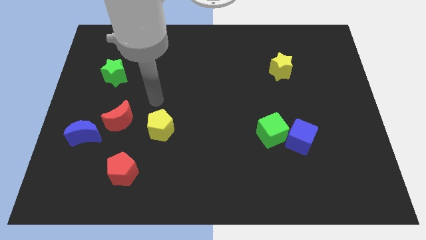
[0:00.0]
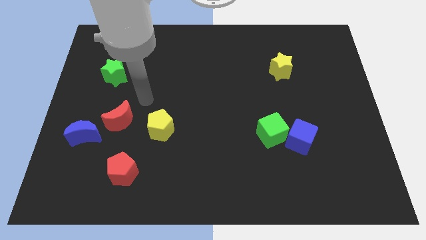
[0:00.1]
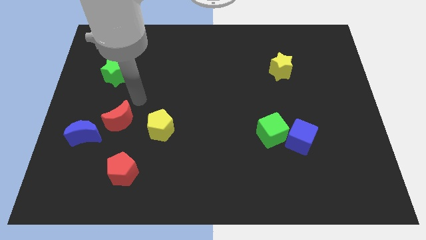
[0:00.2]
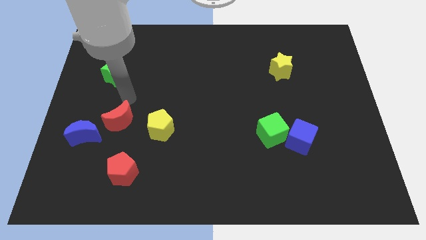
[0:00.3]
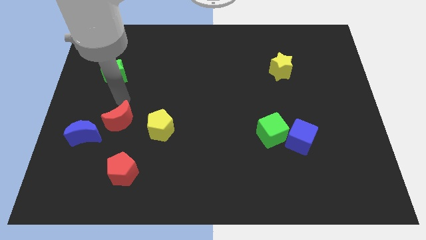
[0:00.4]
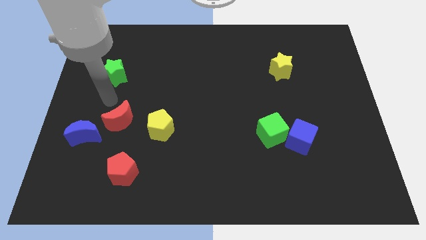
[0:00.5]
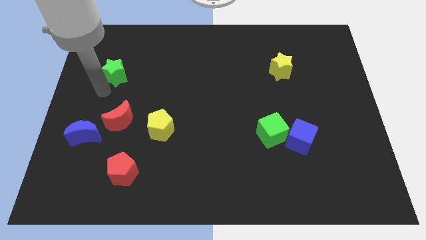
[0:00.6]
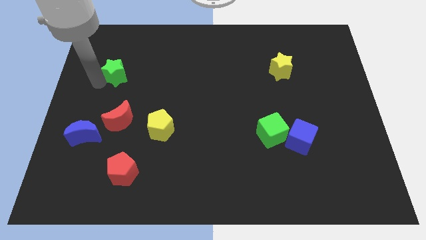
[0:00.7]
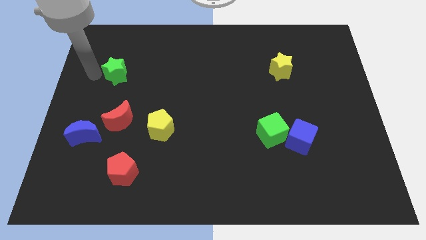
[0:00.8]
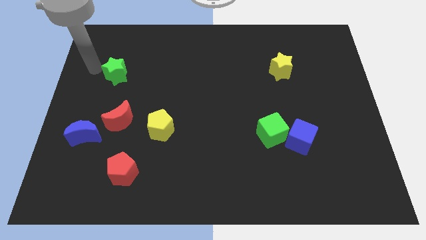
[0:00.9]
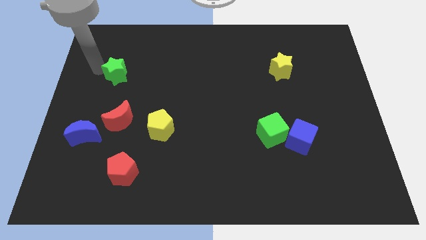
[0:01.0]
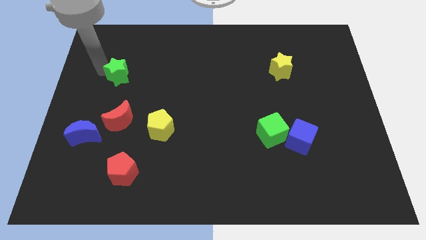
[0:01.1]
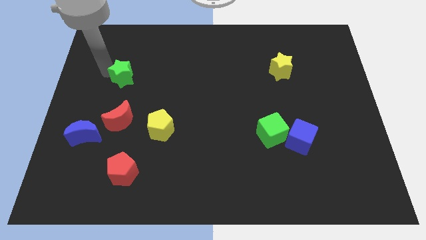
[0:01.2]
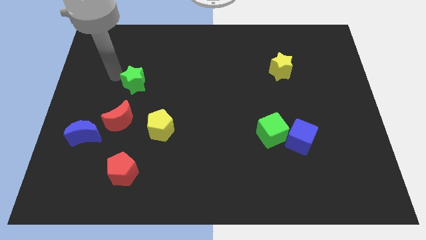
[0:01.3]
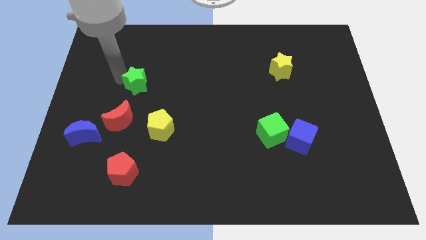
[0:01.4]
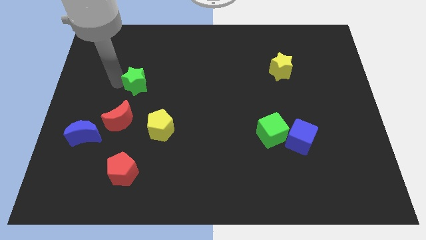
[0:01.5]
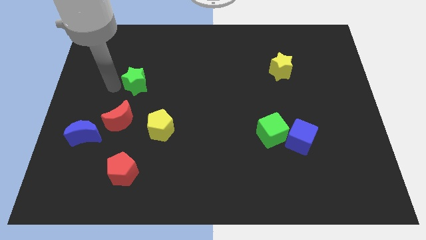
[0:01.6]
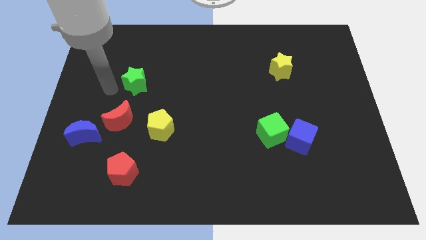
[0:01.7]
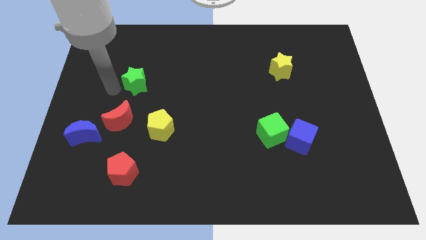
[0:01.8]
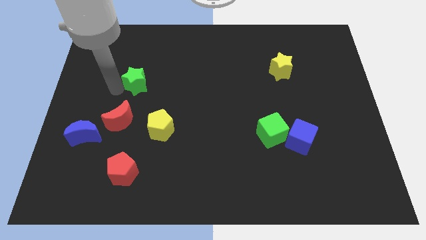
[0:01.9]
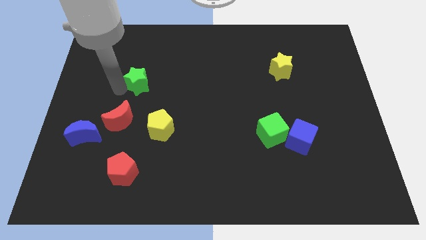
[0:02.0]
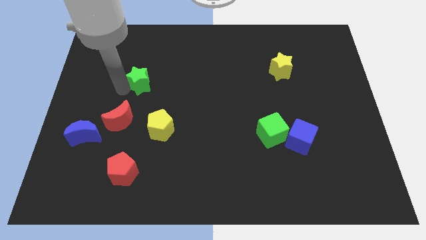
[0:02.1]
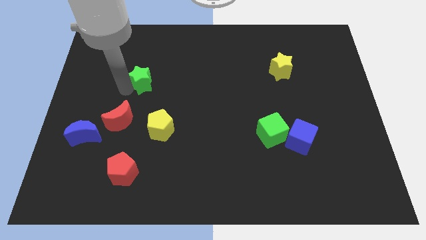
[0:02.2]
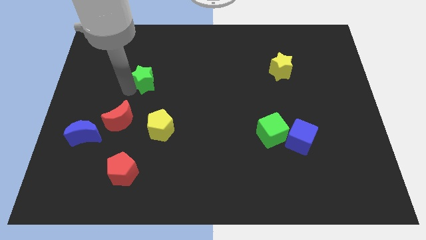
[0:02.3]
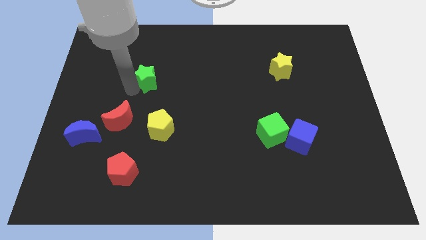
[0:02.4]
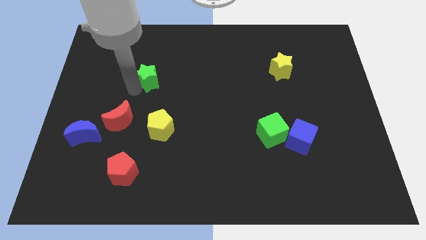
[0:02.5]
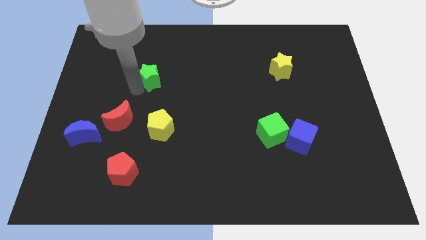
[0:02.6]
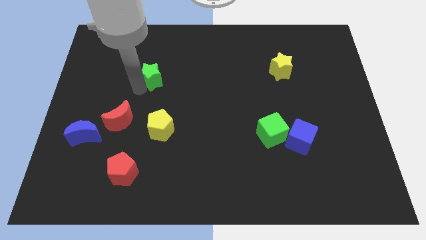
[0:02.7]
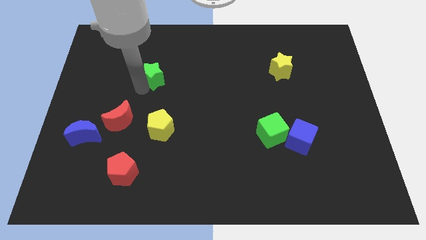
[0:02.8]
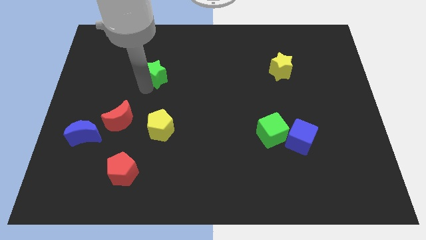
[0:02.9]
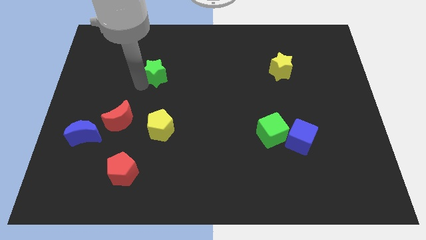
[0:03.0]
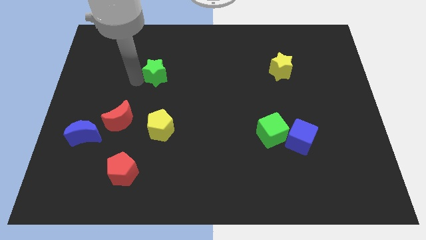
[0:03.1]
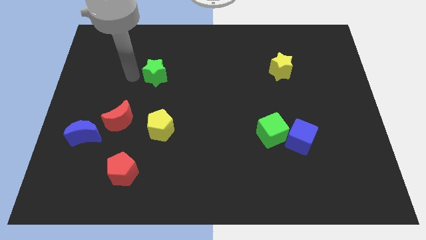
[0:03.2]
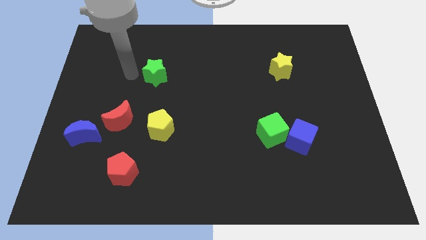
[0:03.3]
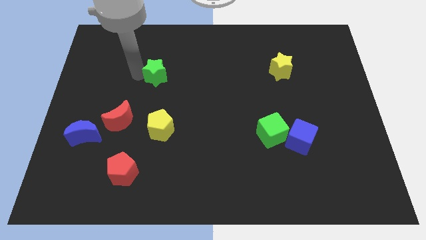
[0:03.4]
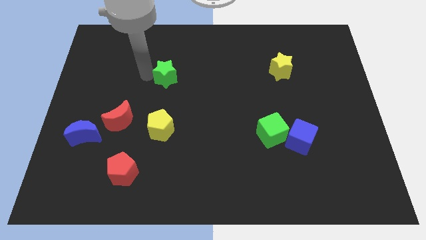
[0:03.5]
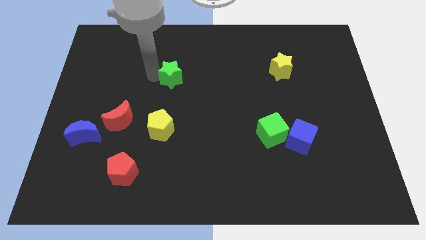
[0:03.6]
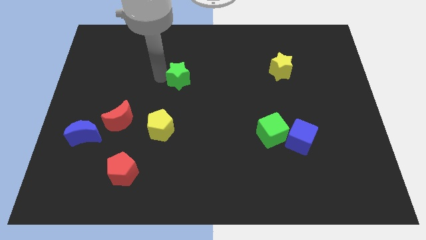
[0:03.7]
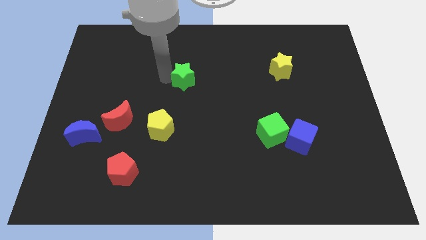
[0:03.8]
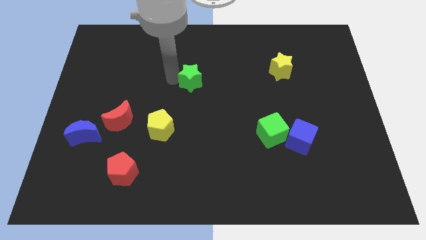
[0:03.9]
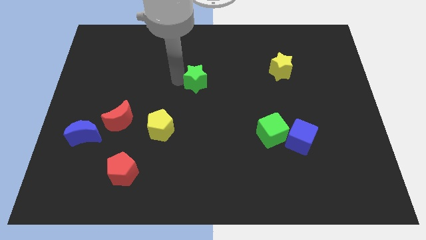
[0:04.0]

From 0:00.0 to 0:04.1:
push the green star to the right

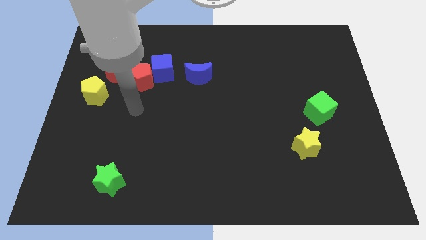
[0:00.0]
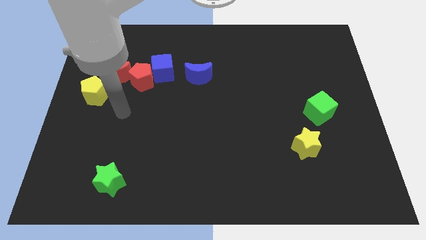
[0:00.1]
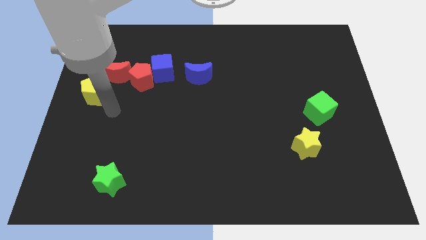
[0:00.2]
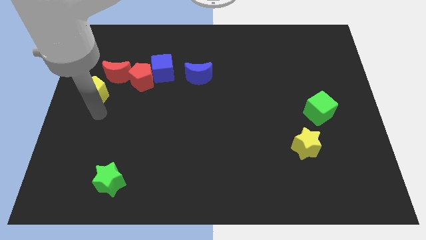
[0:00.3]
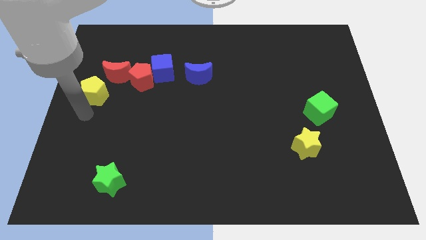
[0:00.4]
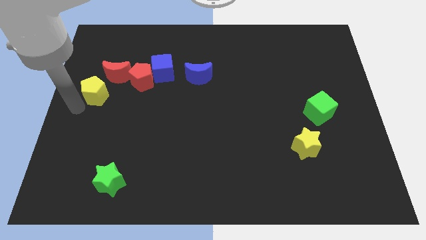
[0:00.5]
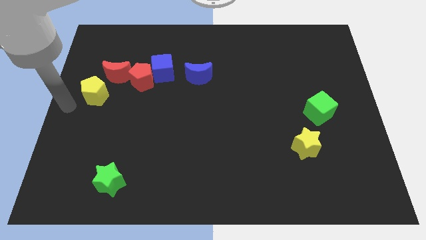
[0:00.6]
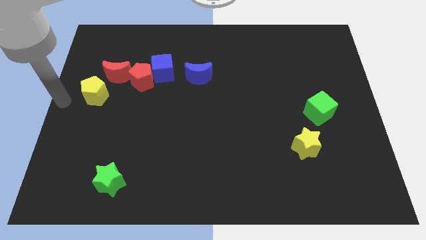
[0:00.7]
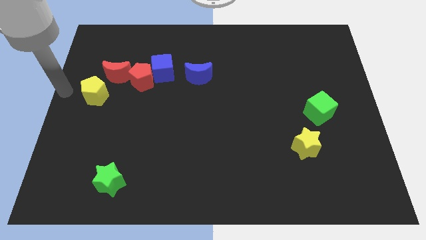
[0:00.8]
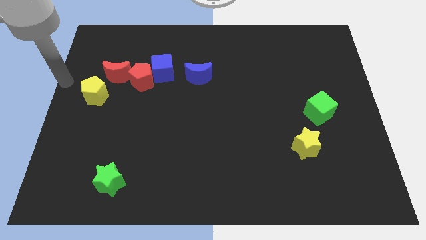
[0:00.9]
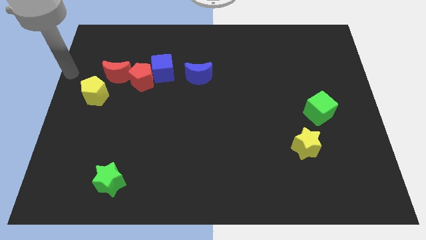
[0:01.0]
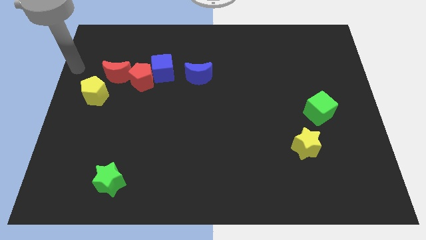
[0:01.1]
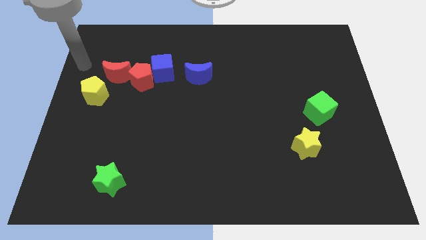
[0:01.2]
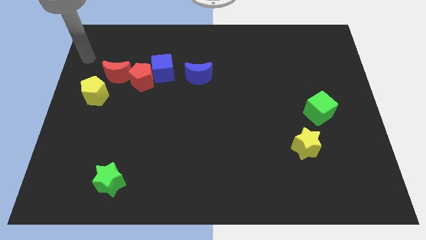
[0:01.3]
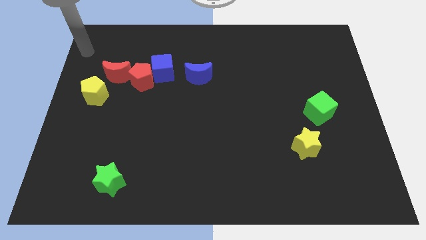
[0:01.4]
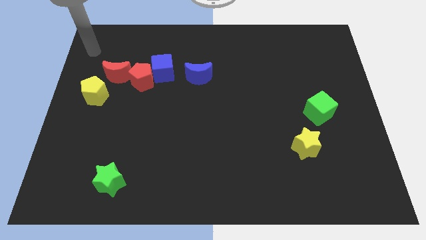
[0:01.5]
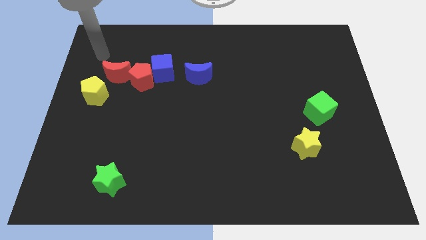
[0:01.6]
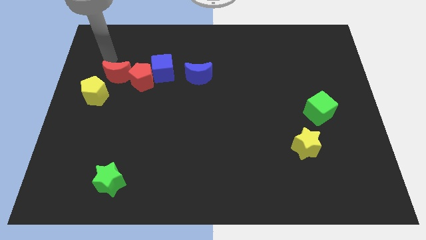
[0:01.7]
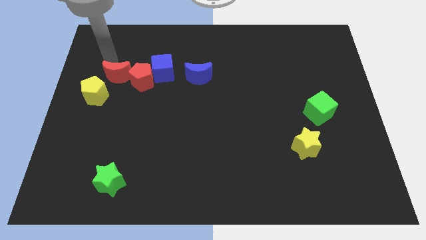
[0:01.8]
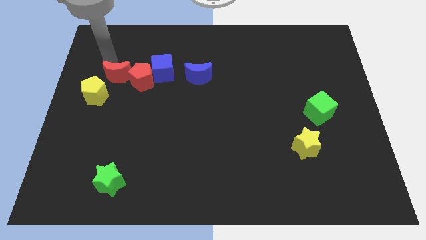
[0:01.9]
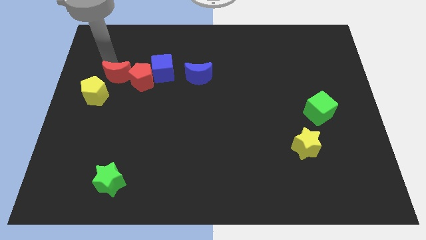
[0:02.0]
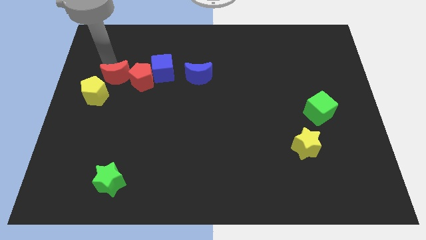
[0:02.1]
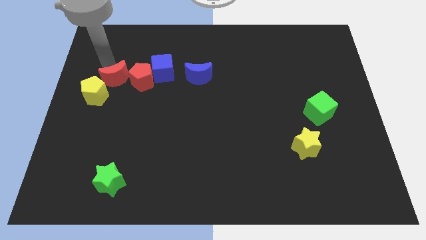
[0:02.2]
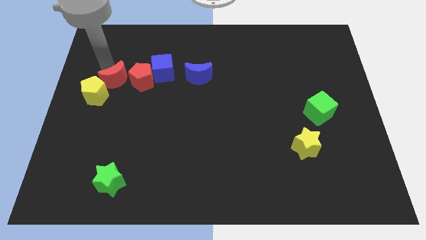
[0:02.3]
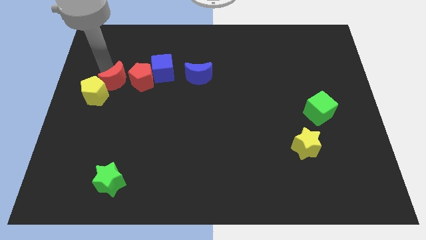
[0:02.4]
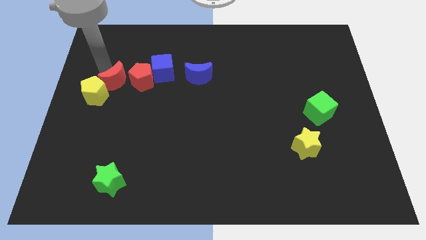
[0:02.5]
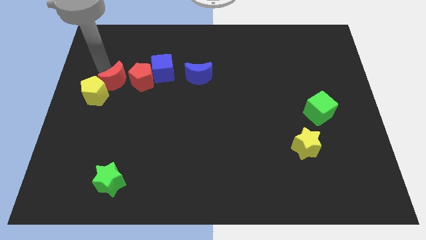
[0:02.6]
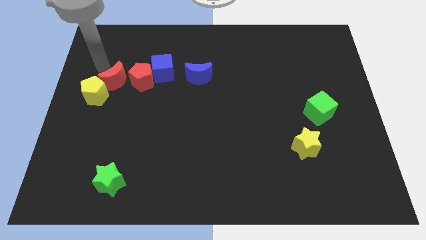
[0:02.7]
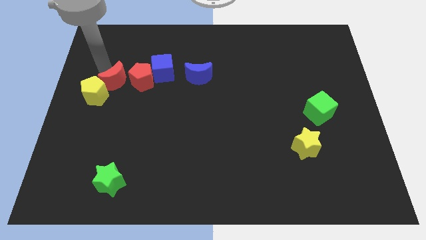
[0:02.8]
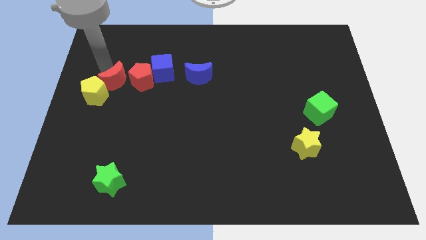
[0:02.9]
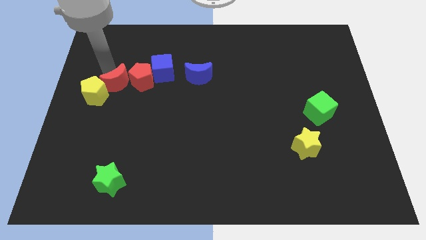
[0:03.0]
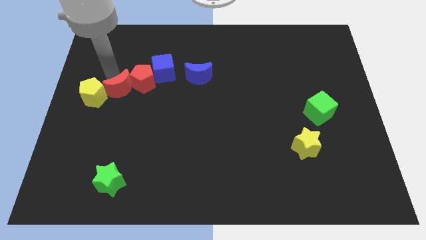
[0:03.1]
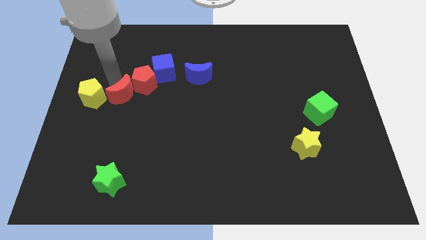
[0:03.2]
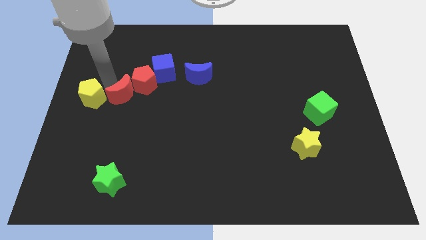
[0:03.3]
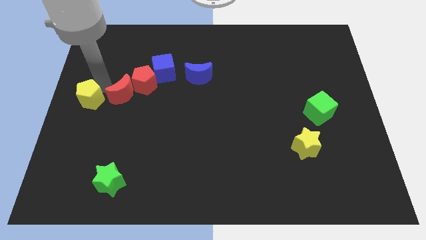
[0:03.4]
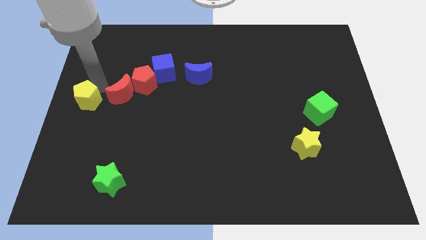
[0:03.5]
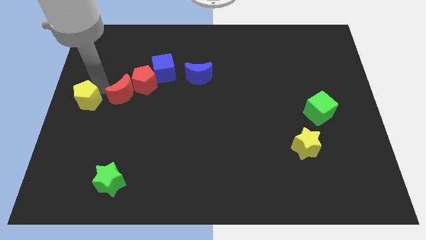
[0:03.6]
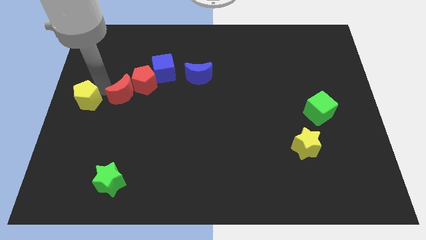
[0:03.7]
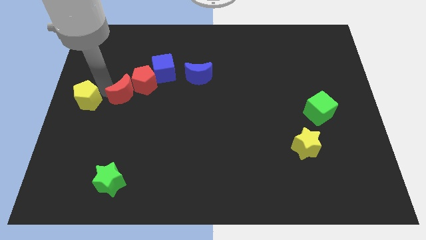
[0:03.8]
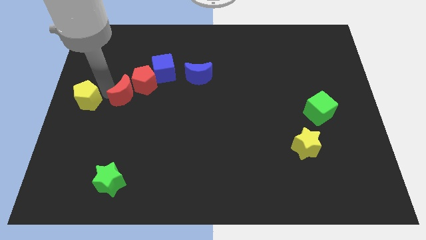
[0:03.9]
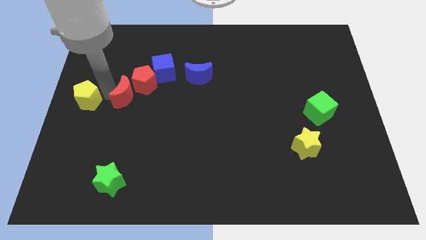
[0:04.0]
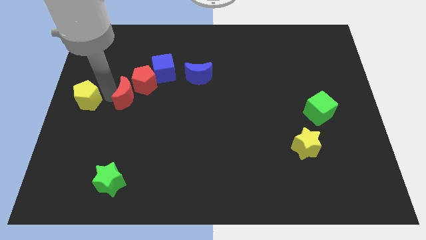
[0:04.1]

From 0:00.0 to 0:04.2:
push the red moon down and to the right diagonally a little bit
